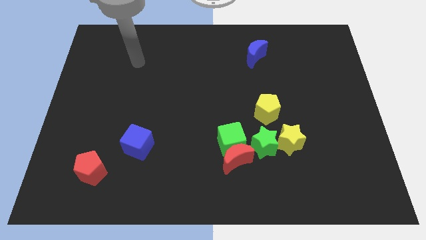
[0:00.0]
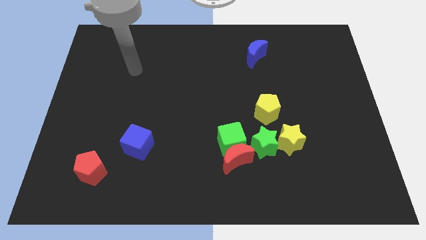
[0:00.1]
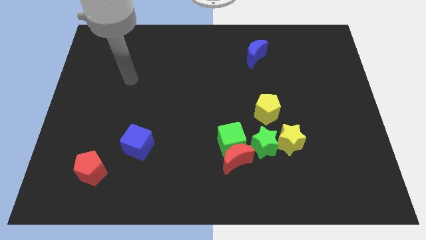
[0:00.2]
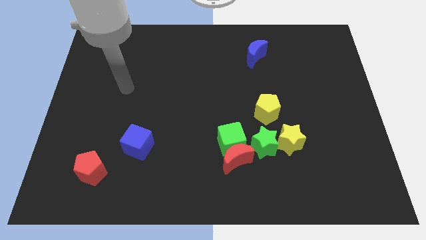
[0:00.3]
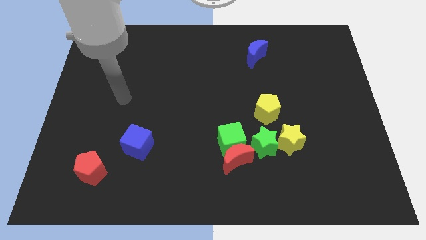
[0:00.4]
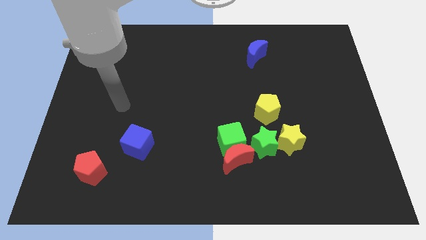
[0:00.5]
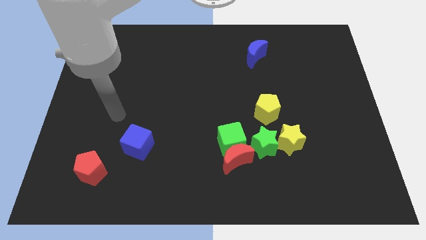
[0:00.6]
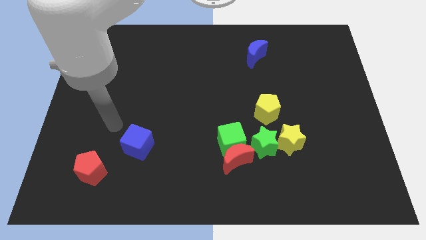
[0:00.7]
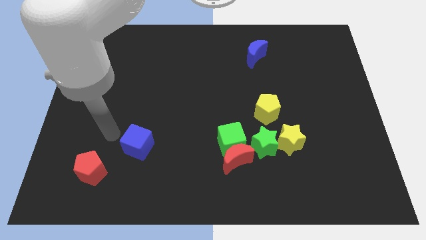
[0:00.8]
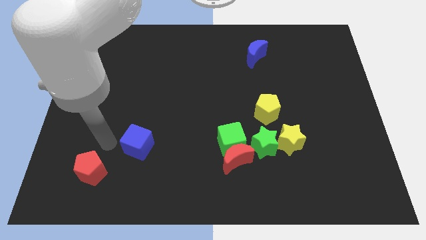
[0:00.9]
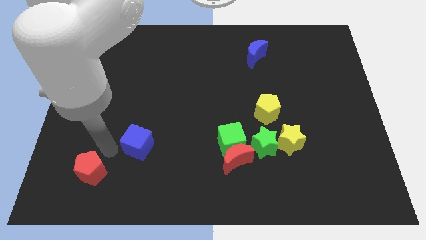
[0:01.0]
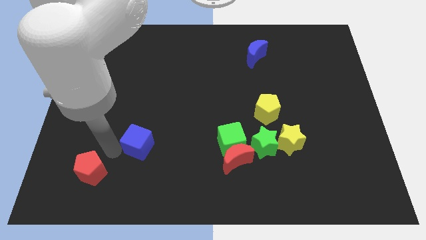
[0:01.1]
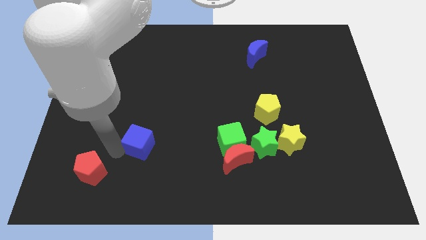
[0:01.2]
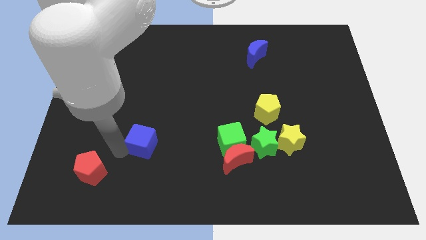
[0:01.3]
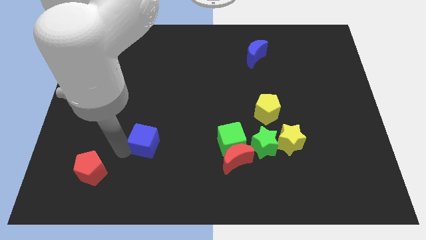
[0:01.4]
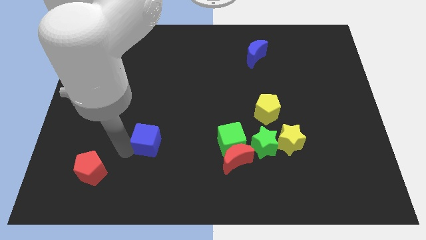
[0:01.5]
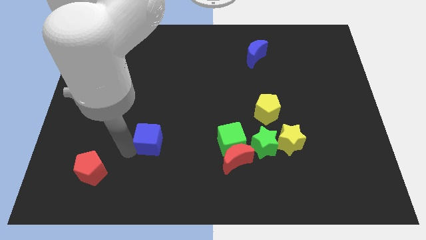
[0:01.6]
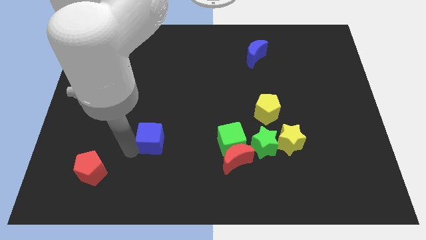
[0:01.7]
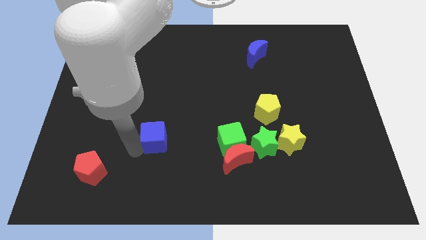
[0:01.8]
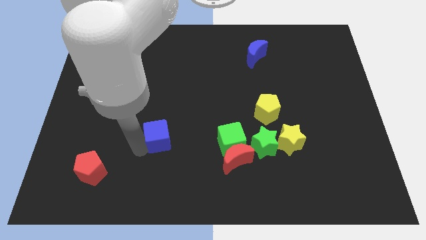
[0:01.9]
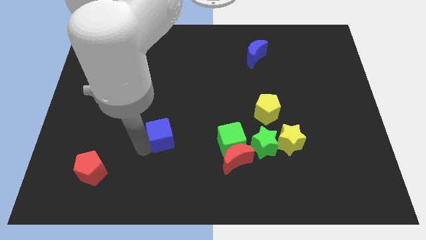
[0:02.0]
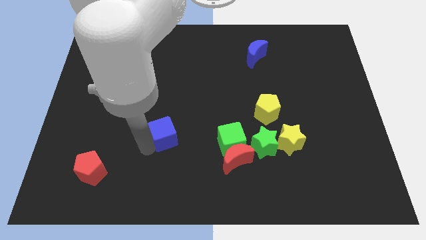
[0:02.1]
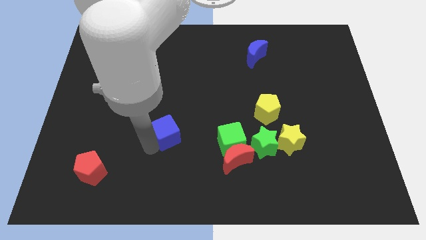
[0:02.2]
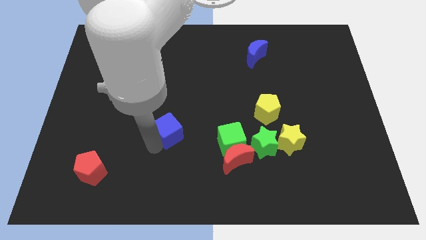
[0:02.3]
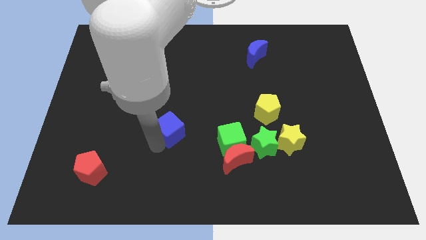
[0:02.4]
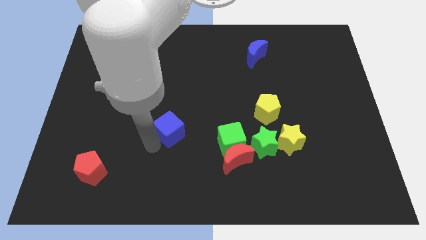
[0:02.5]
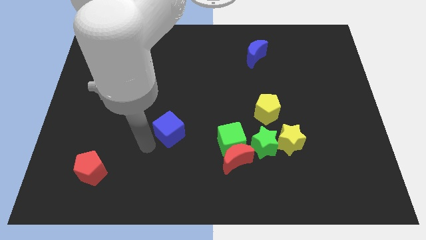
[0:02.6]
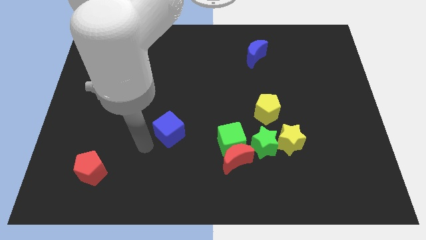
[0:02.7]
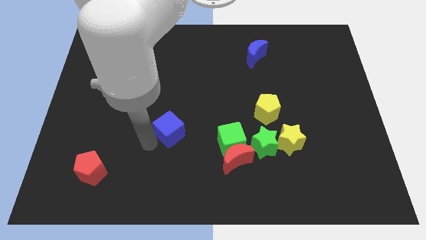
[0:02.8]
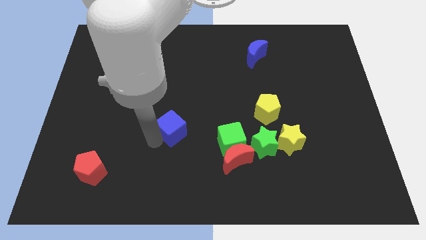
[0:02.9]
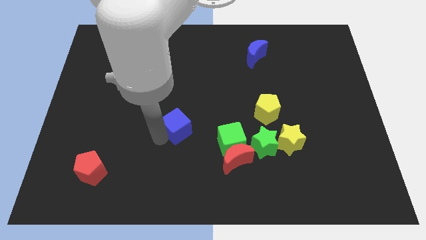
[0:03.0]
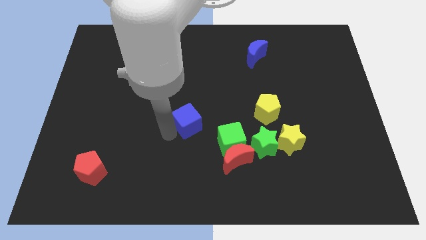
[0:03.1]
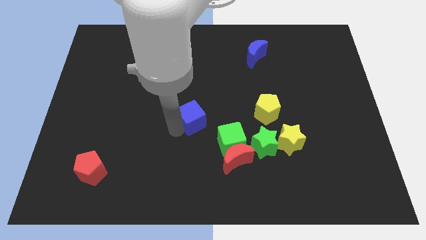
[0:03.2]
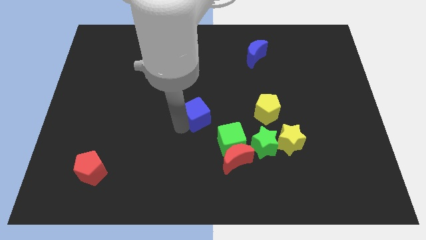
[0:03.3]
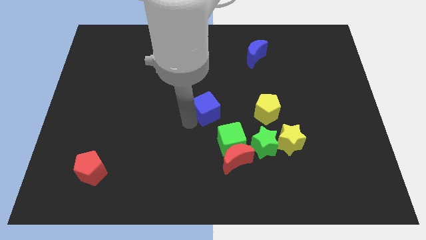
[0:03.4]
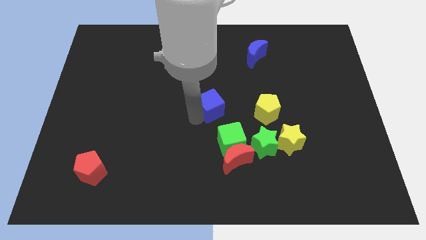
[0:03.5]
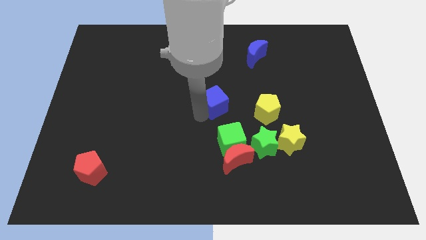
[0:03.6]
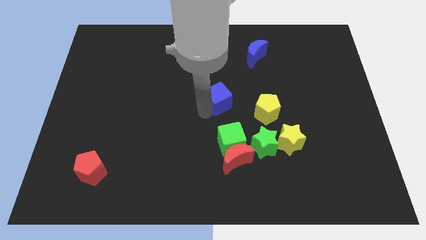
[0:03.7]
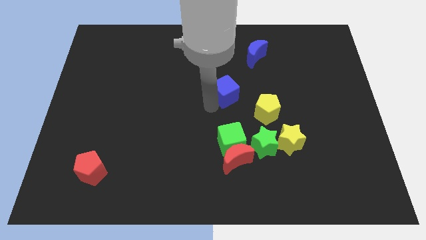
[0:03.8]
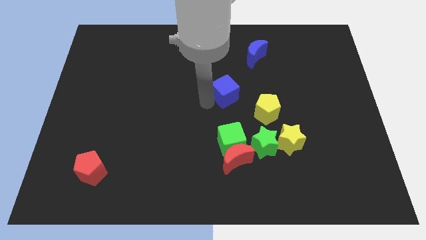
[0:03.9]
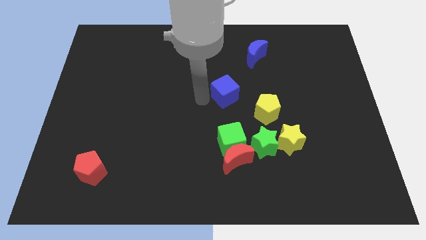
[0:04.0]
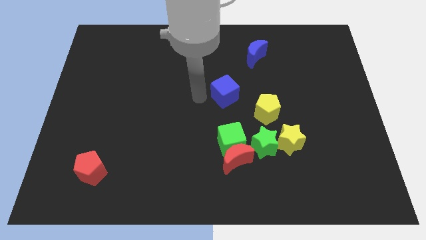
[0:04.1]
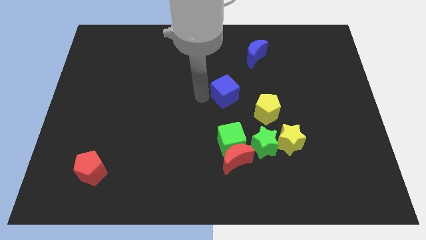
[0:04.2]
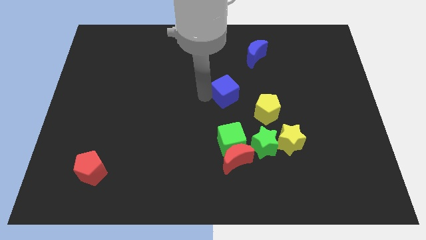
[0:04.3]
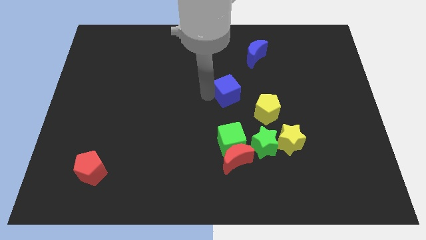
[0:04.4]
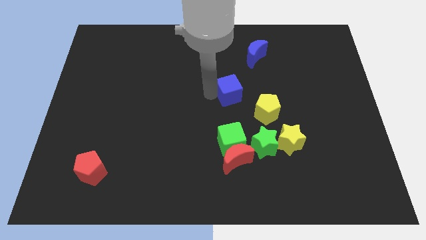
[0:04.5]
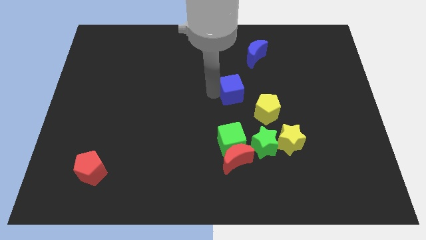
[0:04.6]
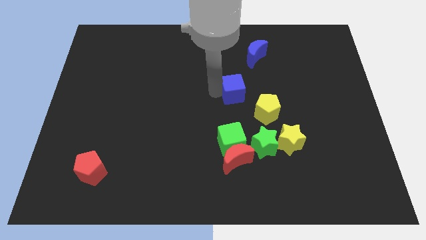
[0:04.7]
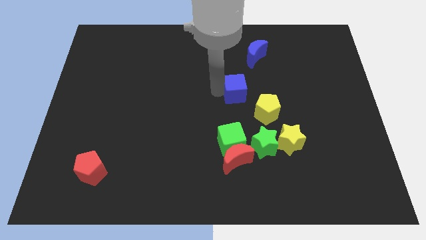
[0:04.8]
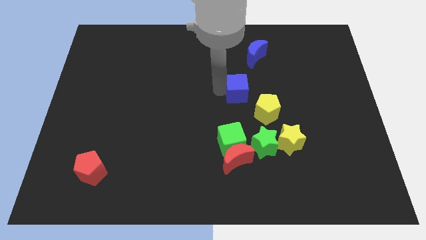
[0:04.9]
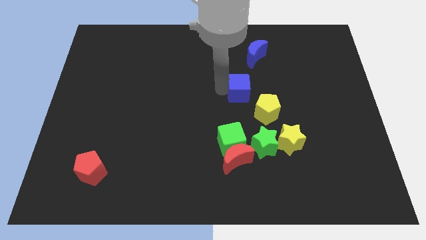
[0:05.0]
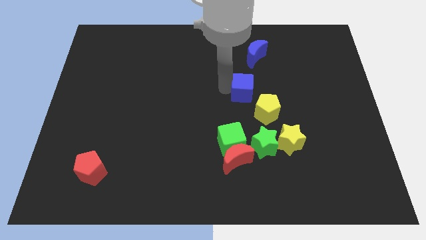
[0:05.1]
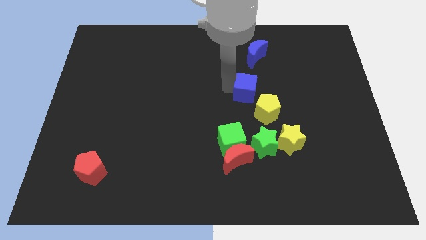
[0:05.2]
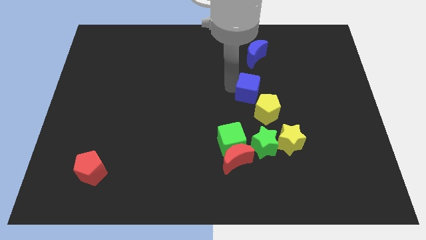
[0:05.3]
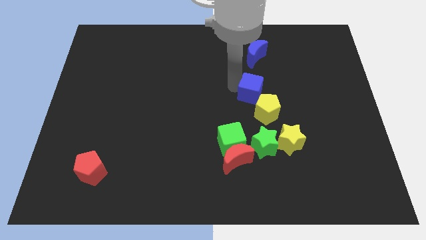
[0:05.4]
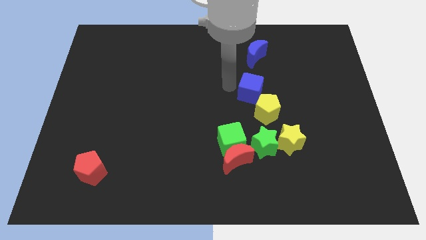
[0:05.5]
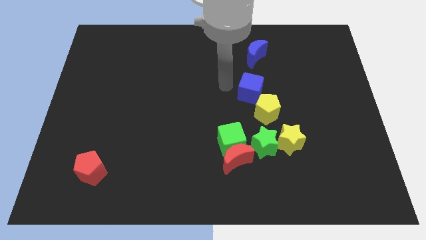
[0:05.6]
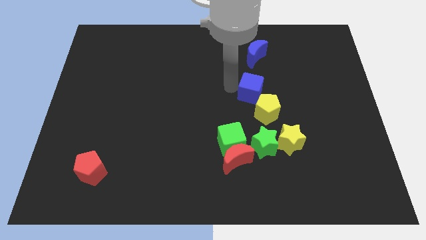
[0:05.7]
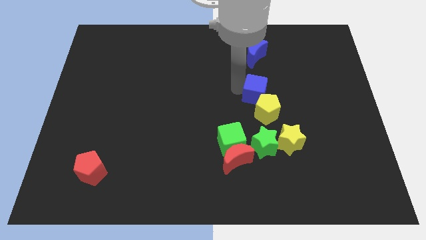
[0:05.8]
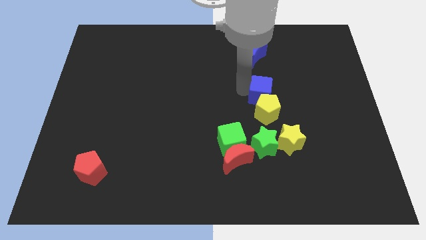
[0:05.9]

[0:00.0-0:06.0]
slide the blue cube to the top right side of the yellow pentagon

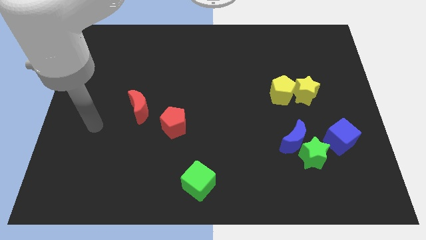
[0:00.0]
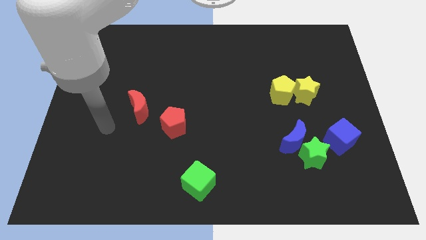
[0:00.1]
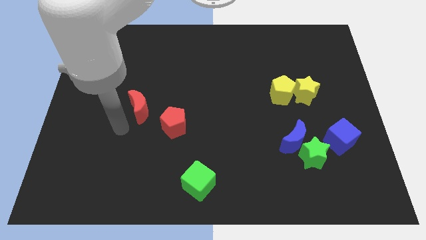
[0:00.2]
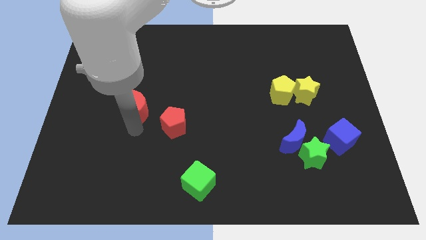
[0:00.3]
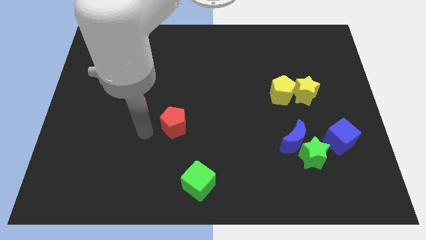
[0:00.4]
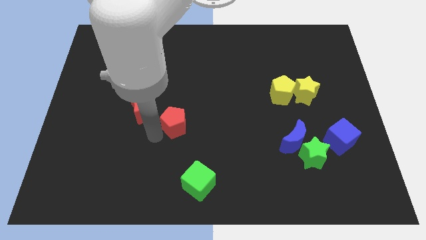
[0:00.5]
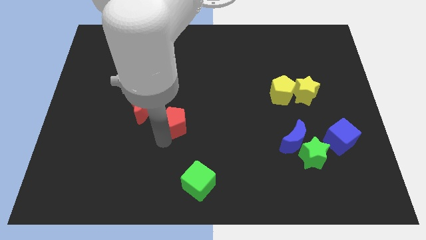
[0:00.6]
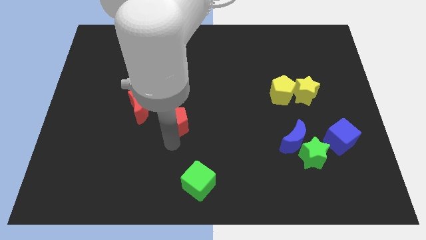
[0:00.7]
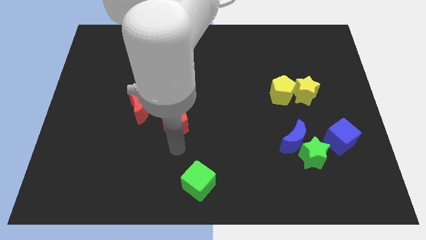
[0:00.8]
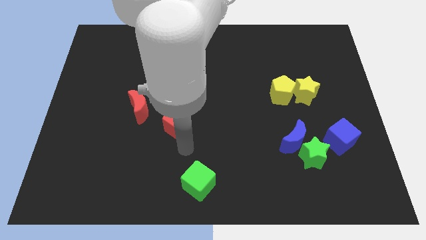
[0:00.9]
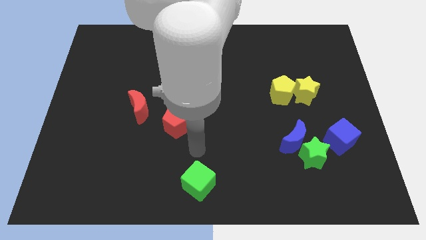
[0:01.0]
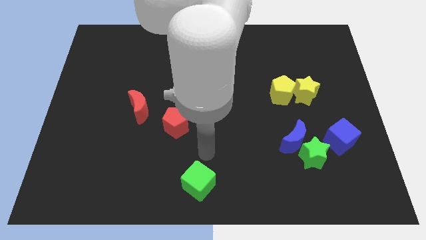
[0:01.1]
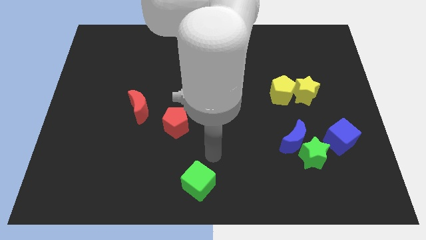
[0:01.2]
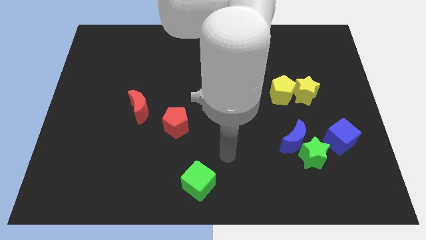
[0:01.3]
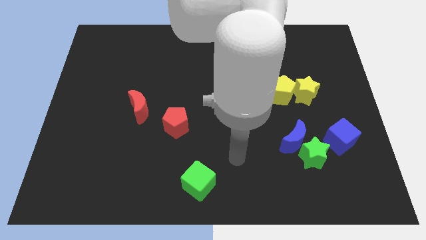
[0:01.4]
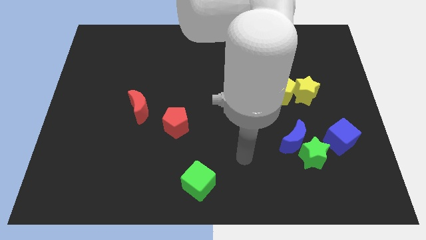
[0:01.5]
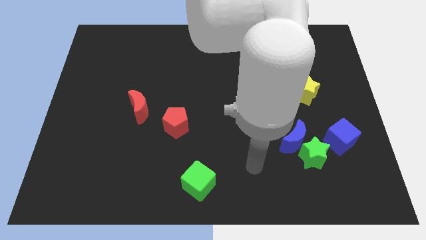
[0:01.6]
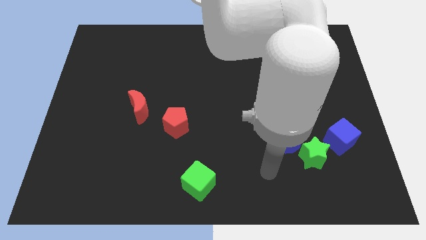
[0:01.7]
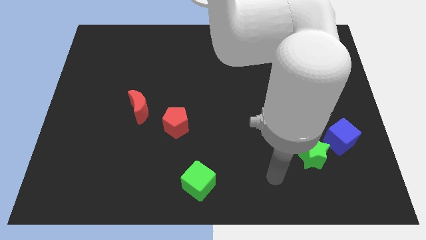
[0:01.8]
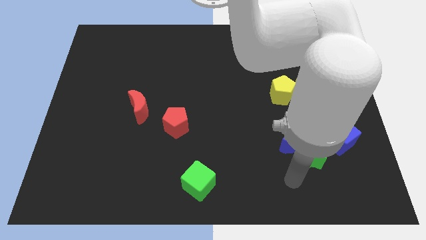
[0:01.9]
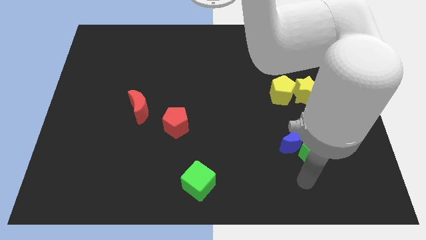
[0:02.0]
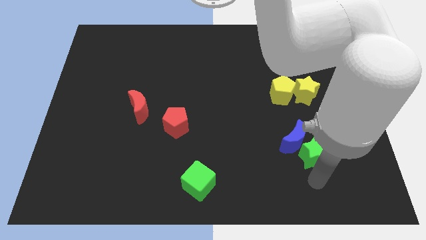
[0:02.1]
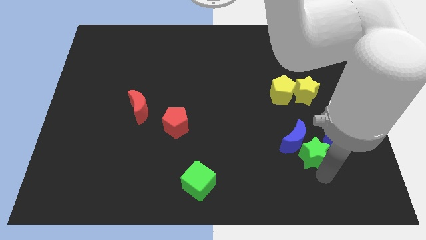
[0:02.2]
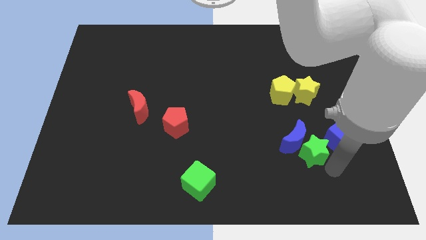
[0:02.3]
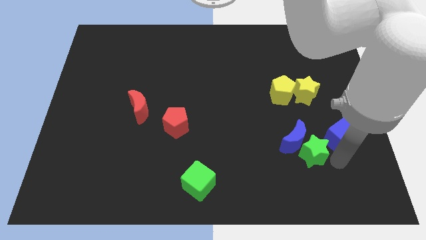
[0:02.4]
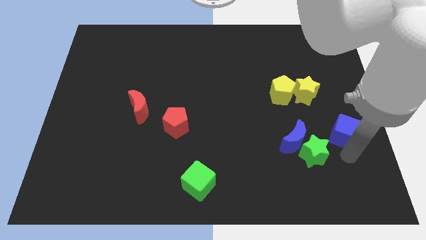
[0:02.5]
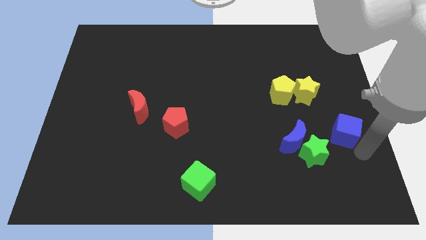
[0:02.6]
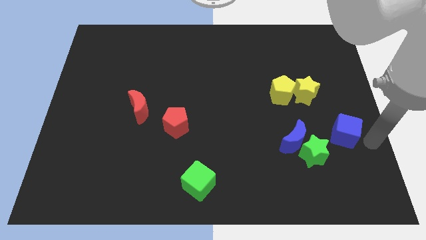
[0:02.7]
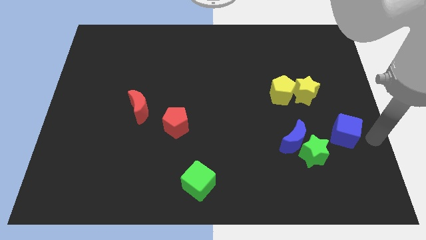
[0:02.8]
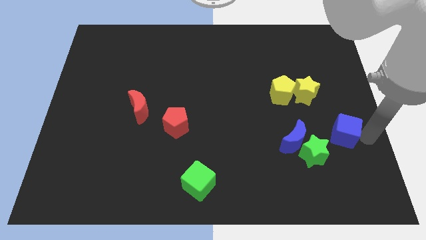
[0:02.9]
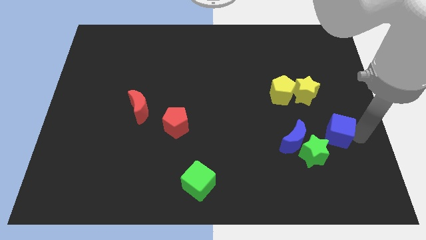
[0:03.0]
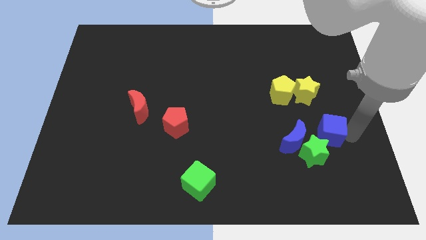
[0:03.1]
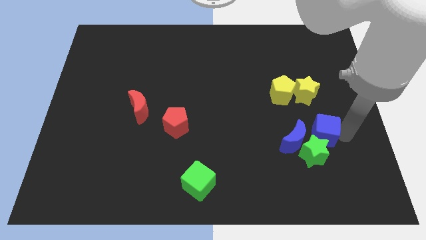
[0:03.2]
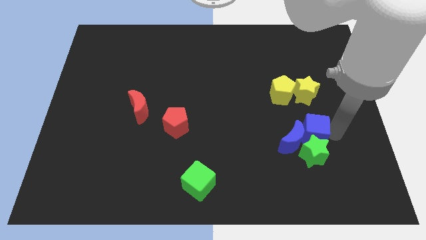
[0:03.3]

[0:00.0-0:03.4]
slide the blue cube to the top left of the green star
